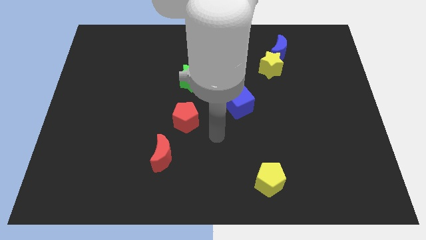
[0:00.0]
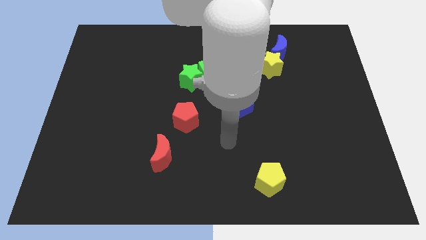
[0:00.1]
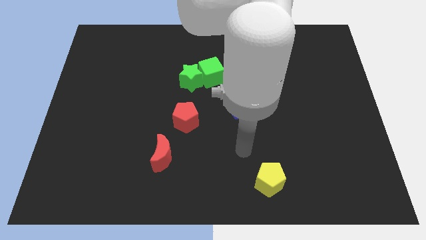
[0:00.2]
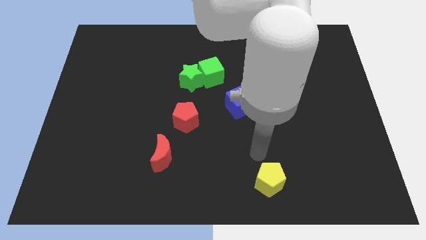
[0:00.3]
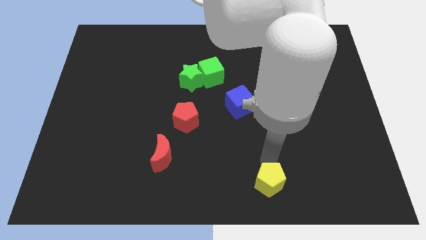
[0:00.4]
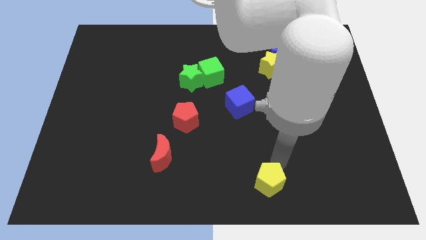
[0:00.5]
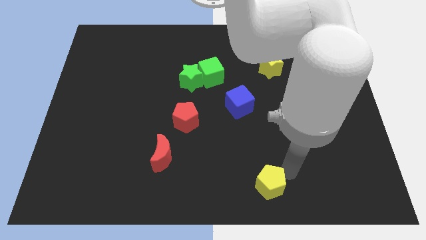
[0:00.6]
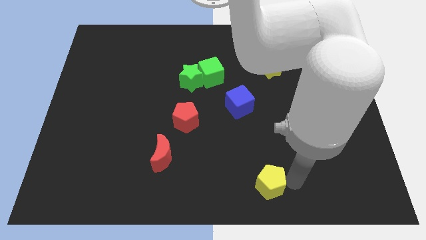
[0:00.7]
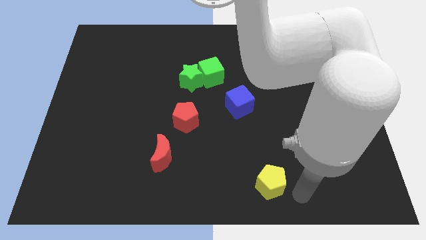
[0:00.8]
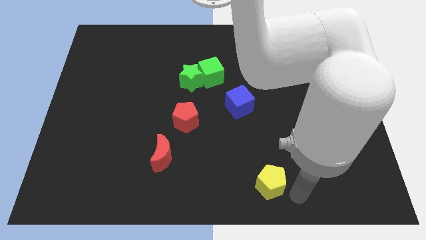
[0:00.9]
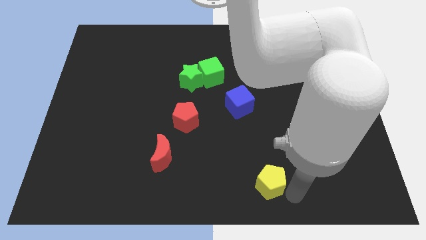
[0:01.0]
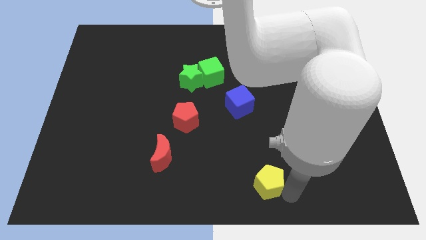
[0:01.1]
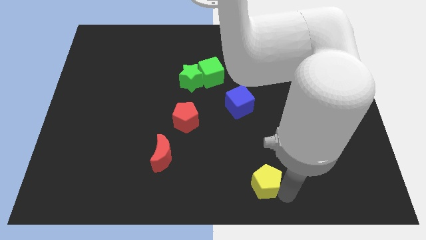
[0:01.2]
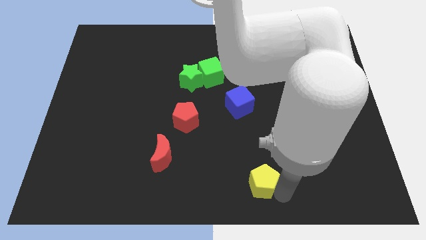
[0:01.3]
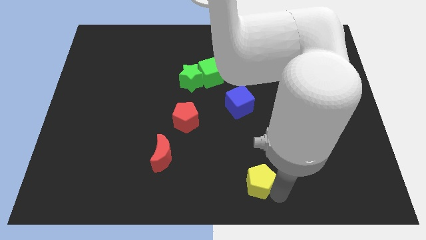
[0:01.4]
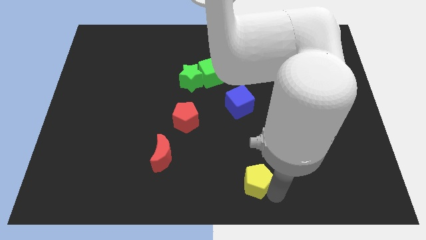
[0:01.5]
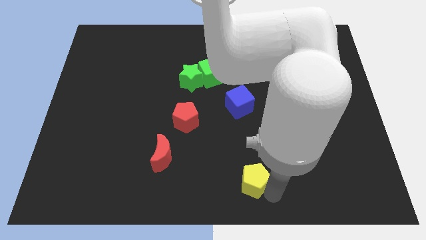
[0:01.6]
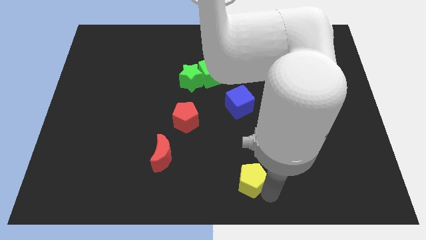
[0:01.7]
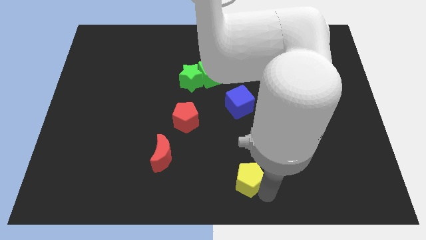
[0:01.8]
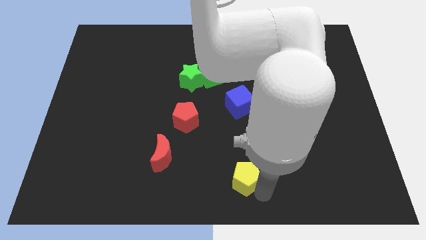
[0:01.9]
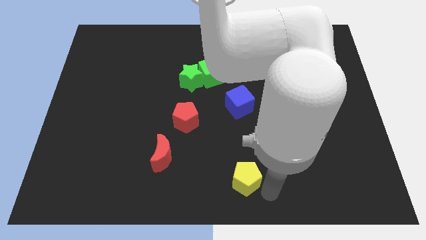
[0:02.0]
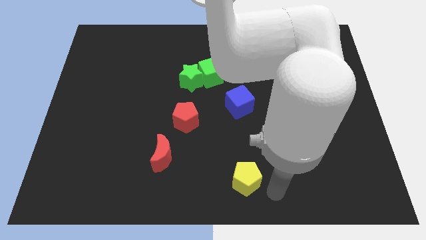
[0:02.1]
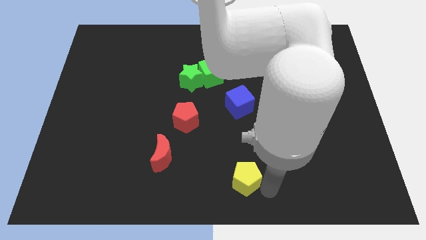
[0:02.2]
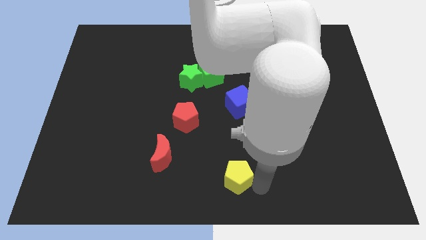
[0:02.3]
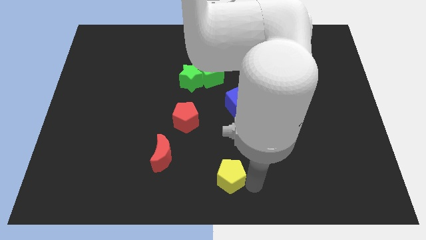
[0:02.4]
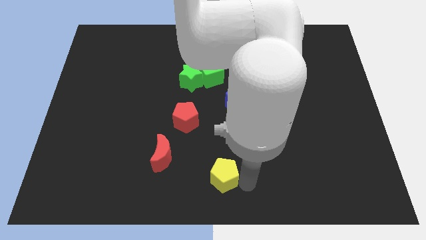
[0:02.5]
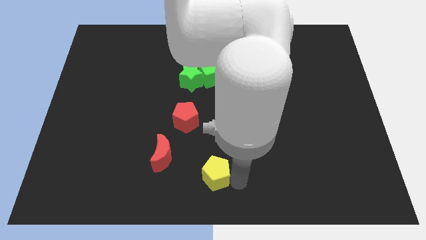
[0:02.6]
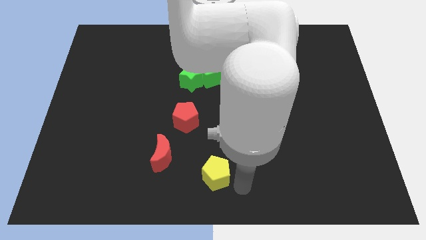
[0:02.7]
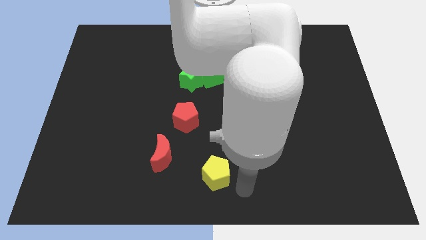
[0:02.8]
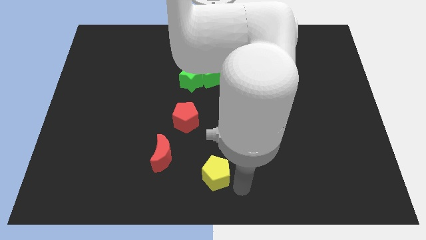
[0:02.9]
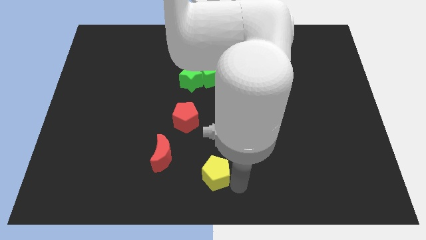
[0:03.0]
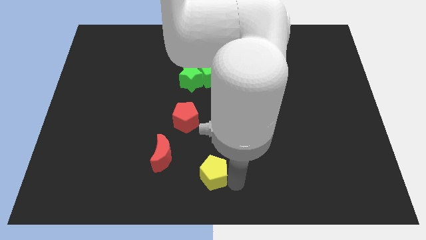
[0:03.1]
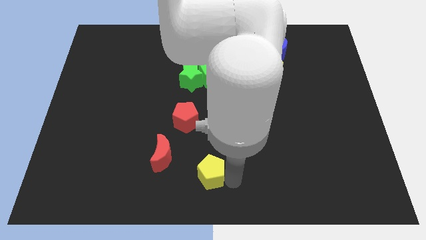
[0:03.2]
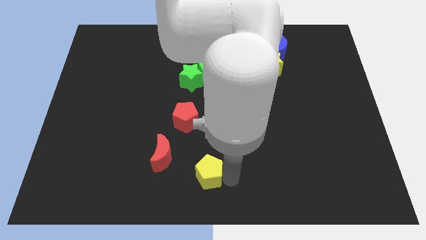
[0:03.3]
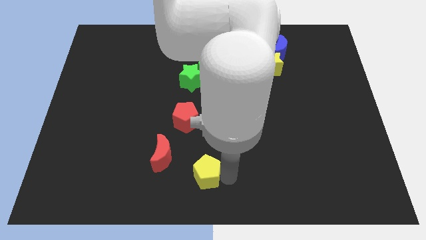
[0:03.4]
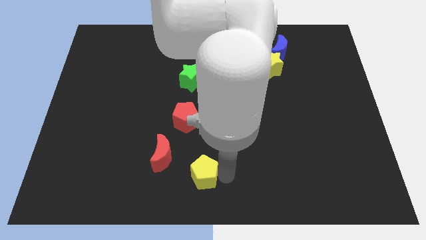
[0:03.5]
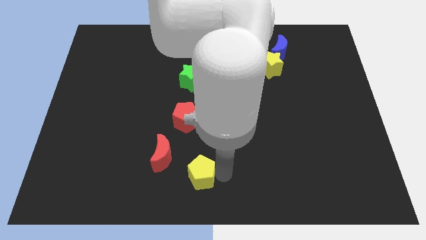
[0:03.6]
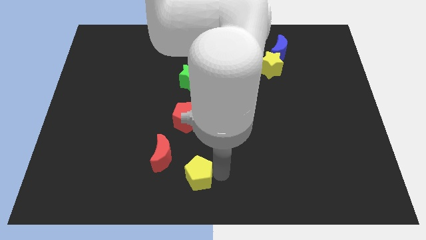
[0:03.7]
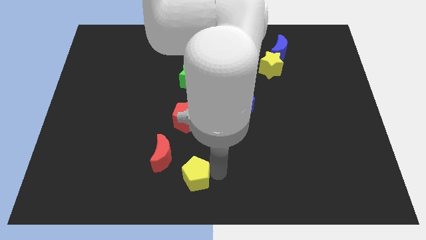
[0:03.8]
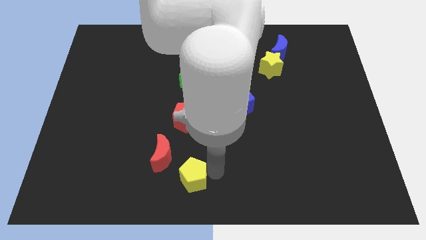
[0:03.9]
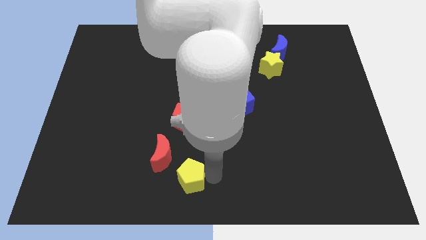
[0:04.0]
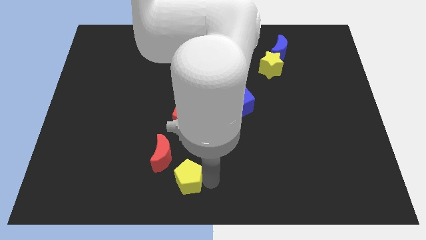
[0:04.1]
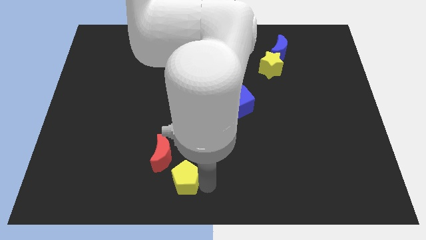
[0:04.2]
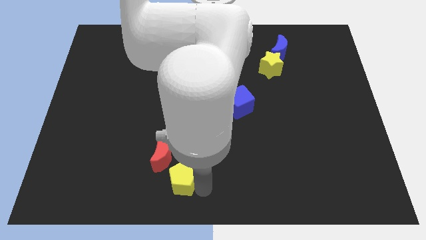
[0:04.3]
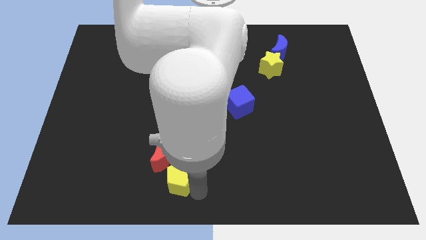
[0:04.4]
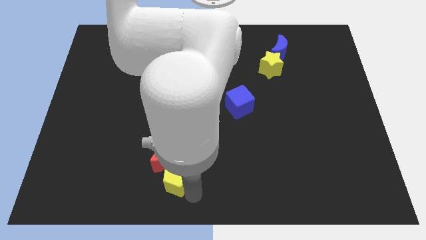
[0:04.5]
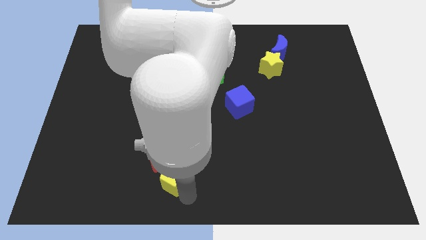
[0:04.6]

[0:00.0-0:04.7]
push the yellow pentagon close to the red moon

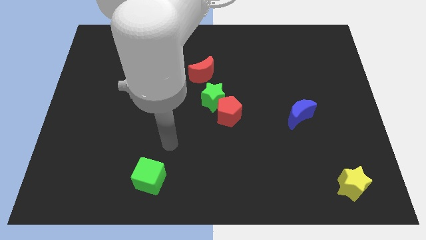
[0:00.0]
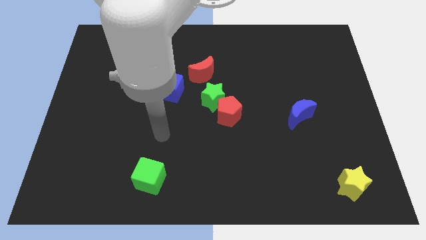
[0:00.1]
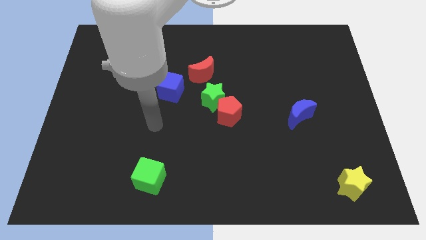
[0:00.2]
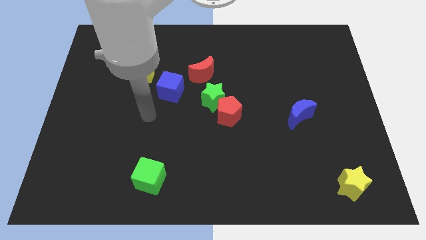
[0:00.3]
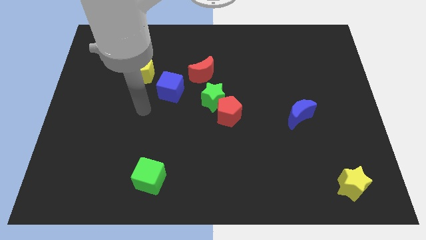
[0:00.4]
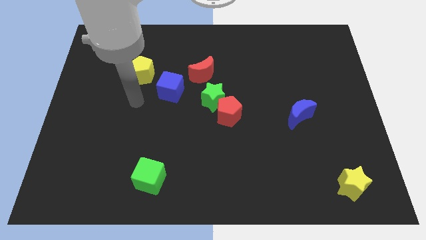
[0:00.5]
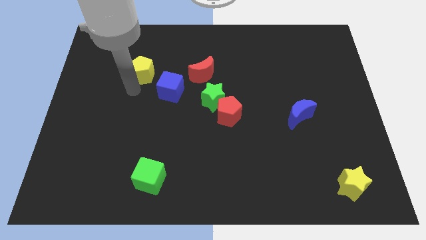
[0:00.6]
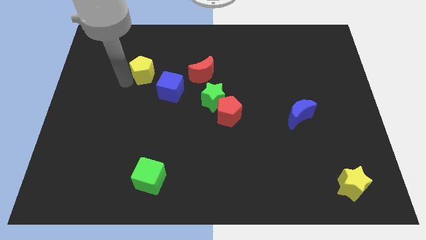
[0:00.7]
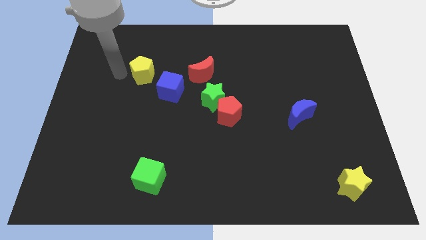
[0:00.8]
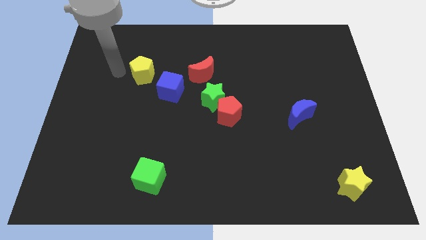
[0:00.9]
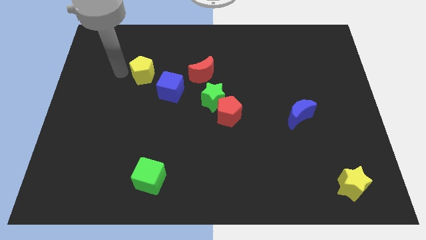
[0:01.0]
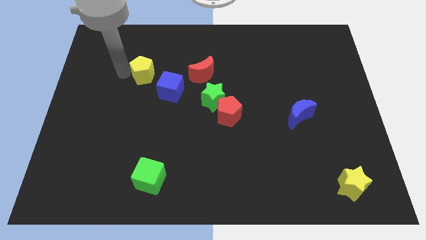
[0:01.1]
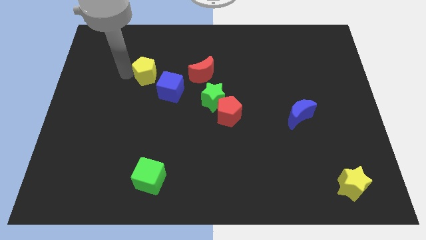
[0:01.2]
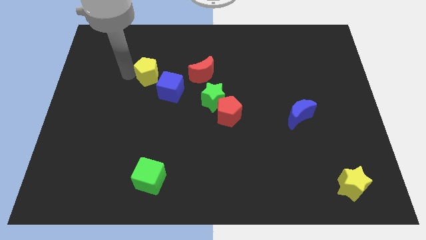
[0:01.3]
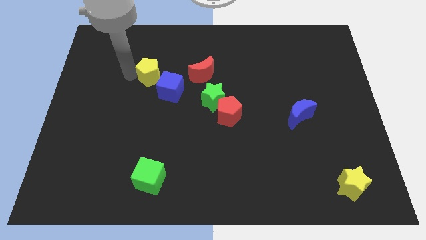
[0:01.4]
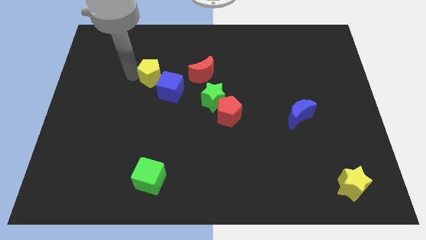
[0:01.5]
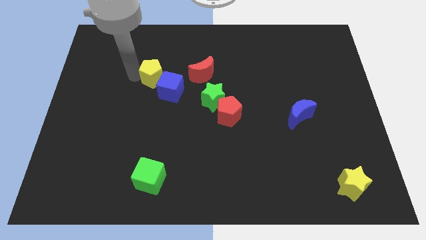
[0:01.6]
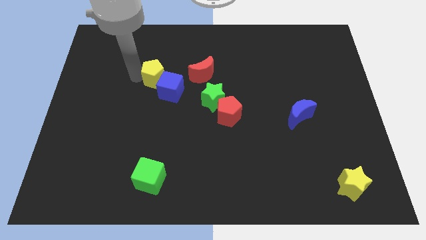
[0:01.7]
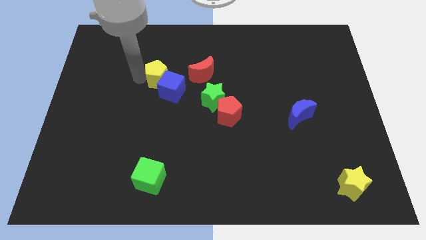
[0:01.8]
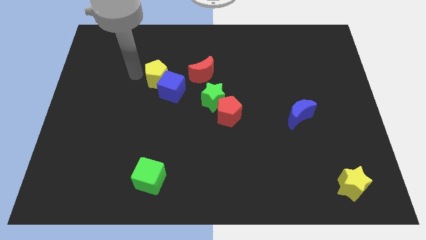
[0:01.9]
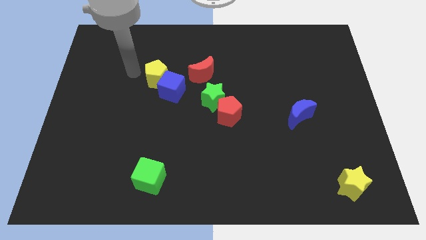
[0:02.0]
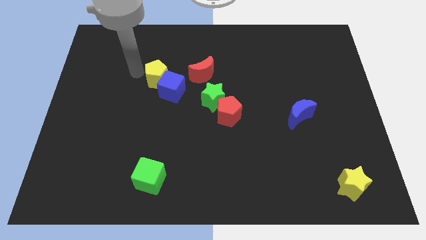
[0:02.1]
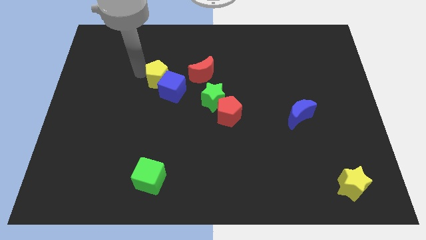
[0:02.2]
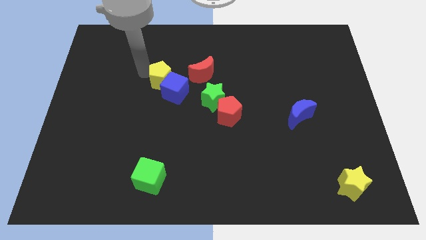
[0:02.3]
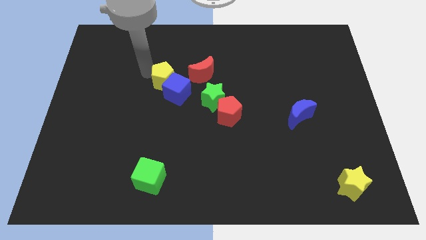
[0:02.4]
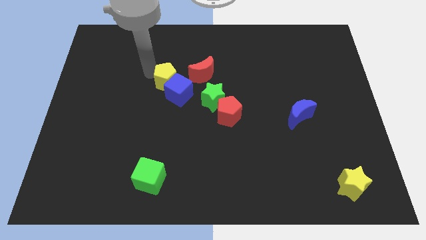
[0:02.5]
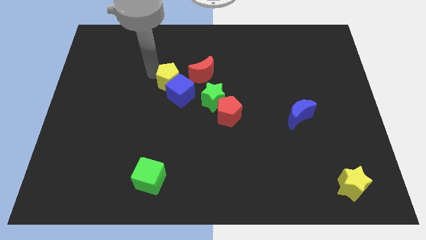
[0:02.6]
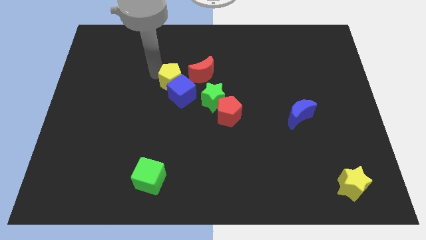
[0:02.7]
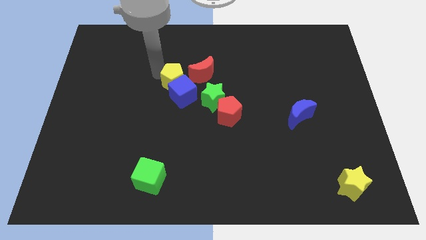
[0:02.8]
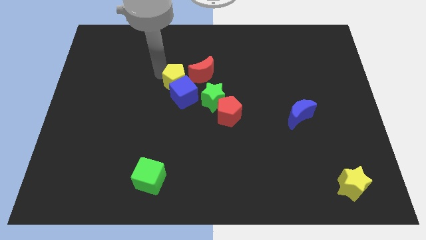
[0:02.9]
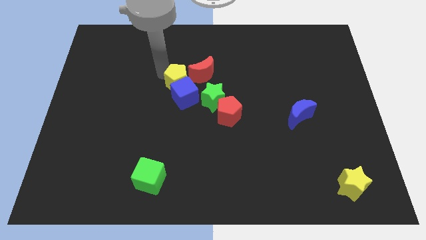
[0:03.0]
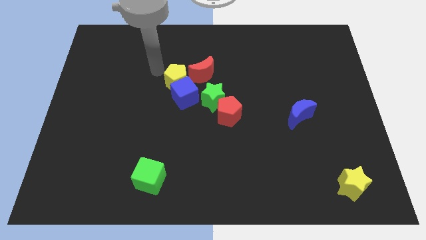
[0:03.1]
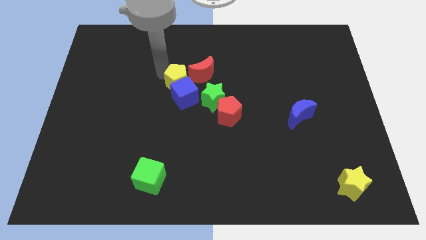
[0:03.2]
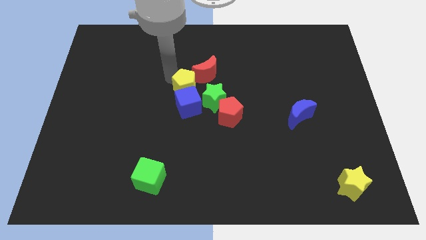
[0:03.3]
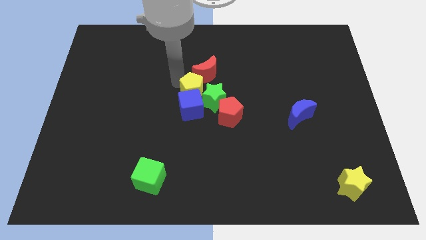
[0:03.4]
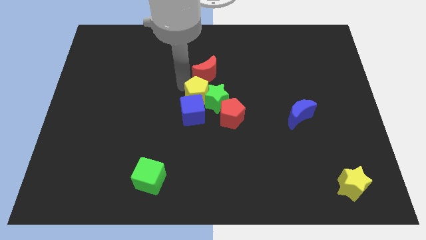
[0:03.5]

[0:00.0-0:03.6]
put the yellow pentagon close to the green star
